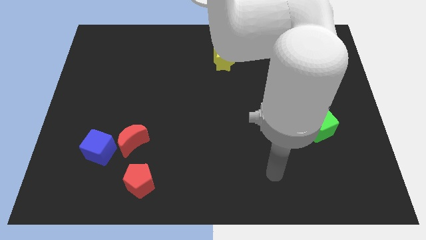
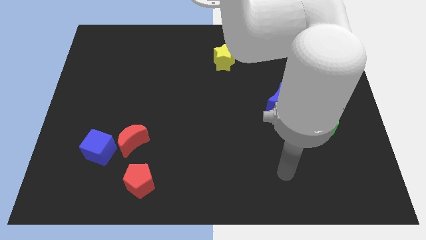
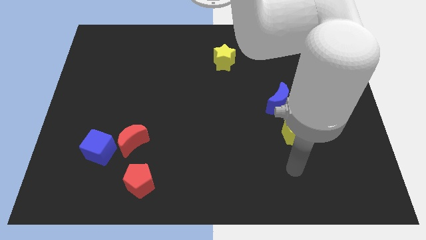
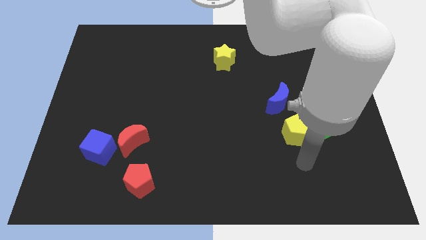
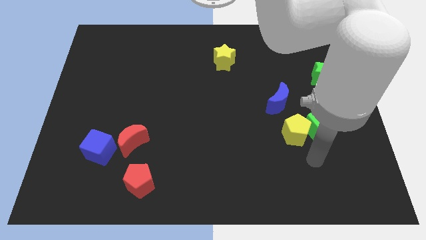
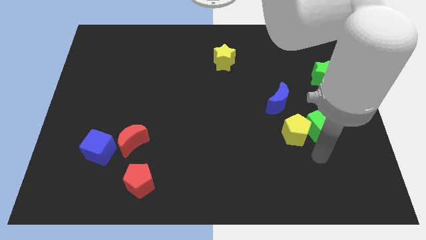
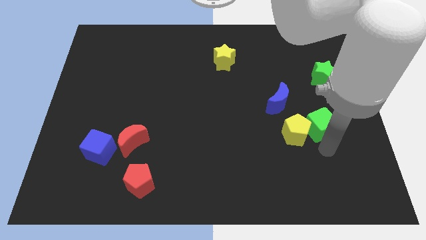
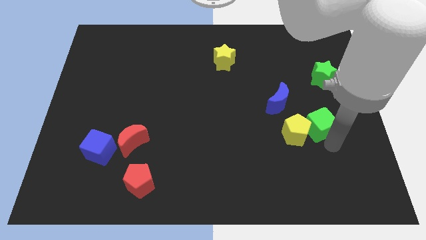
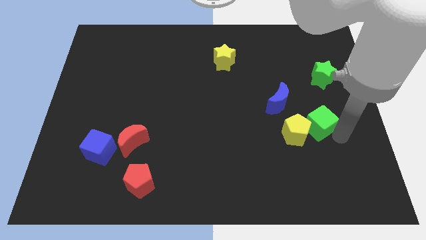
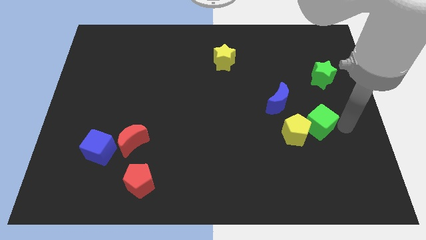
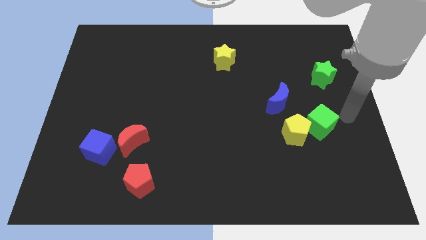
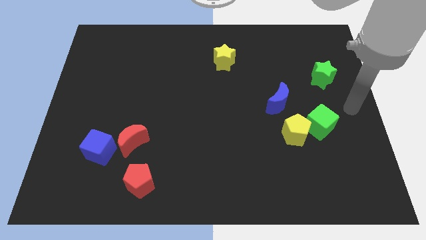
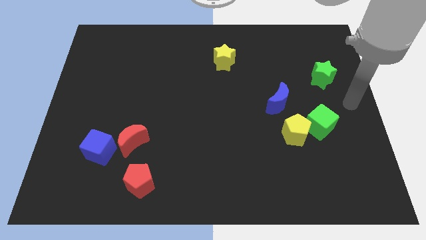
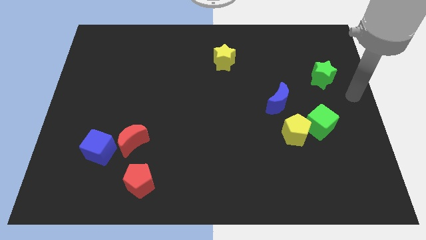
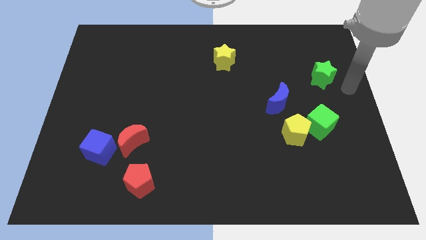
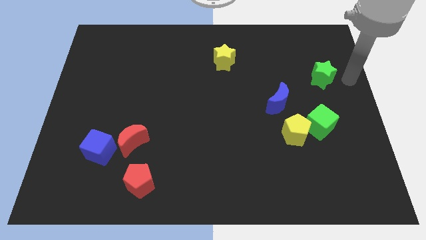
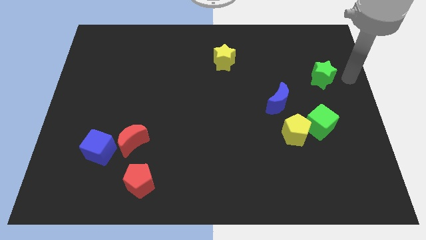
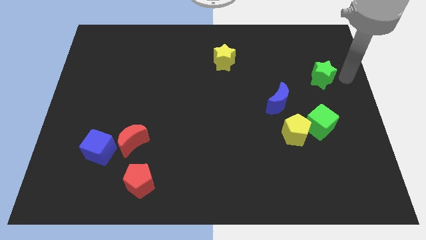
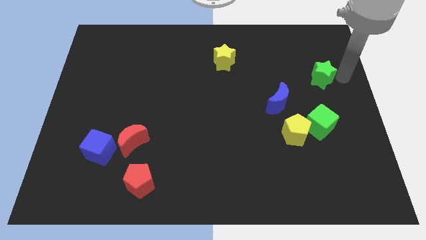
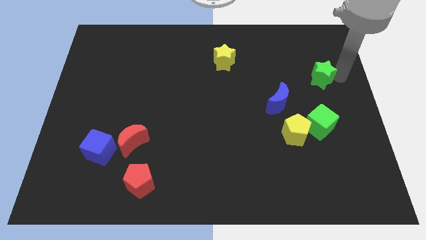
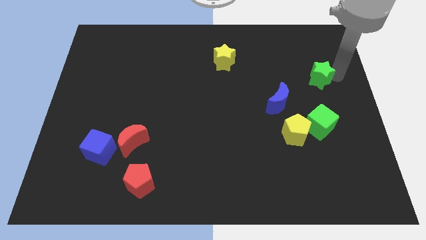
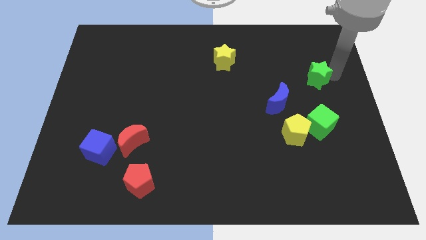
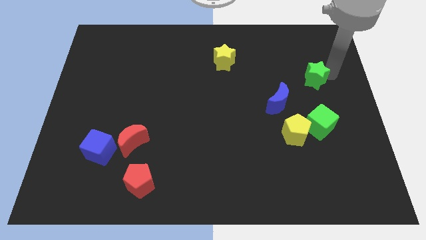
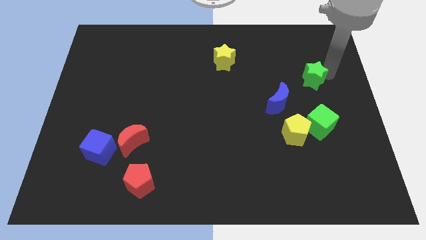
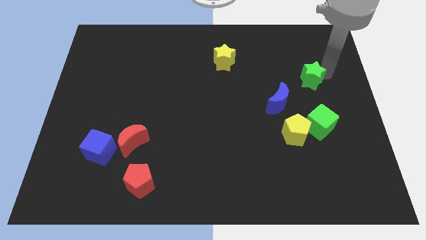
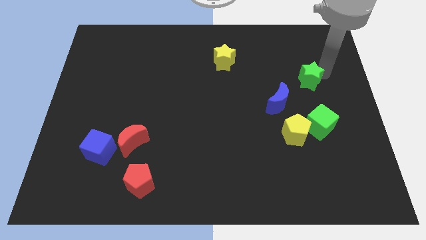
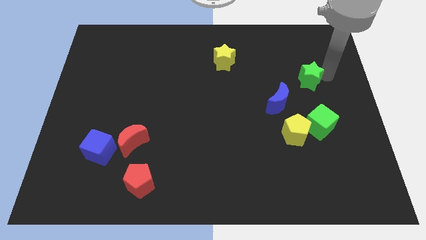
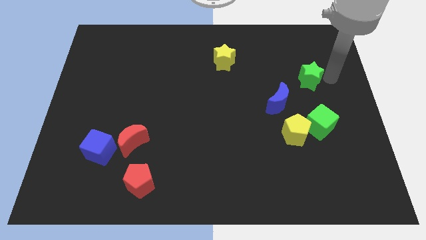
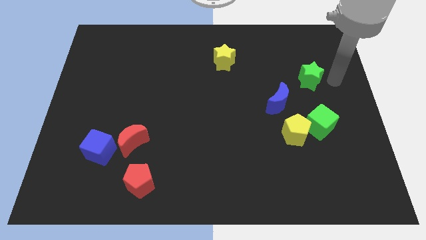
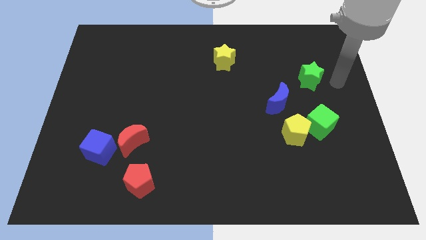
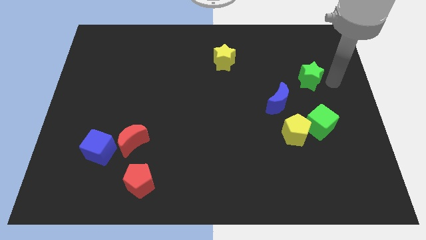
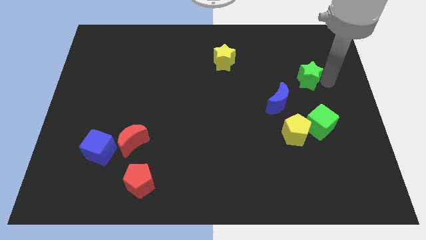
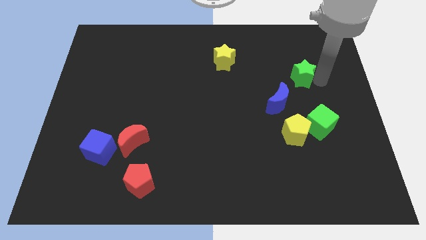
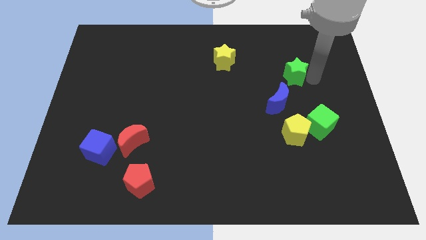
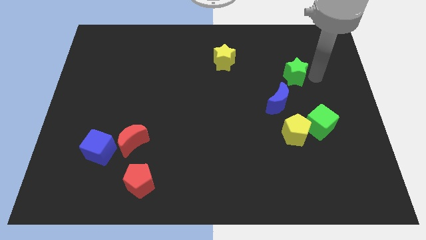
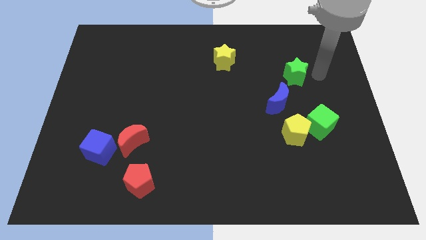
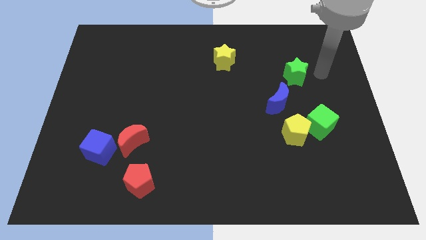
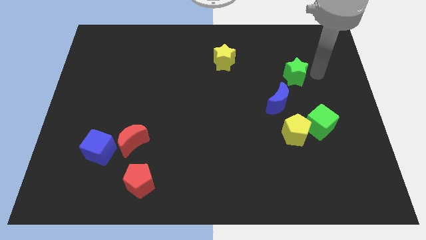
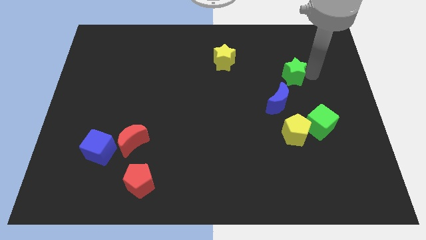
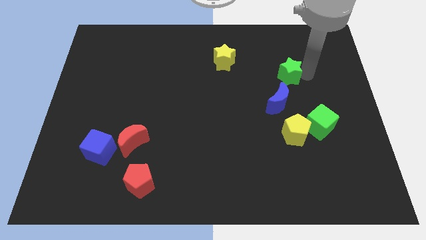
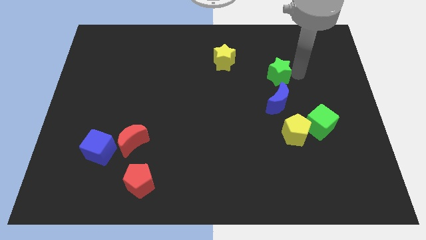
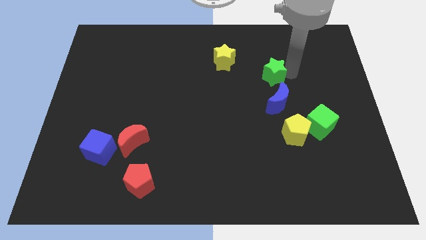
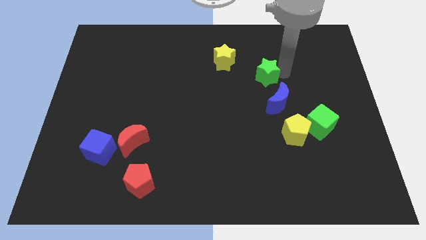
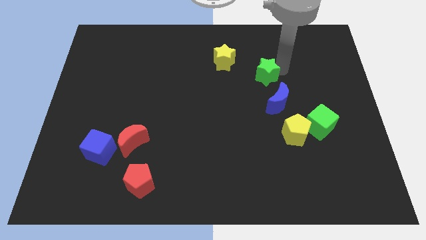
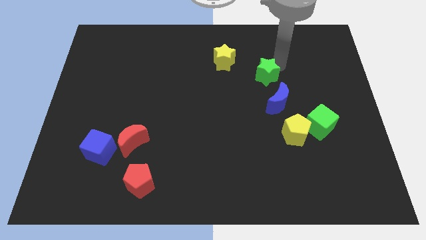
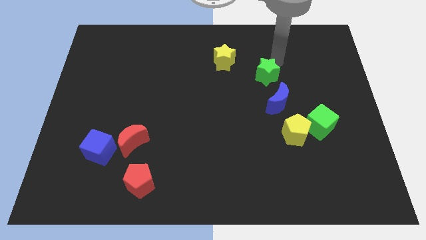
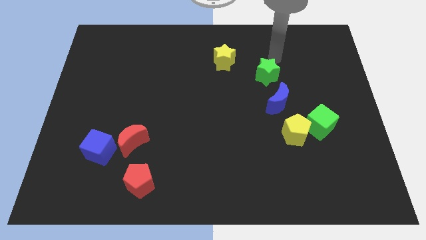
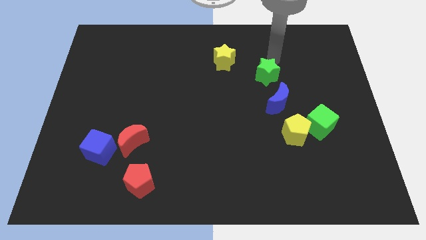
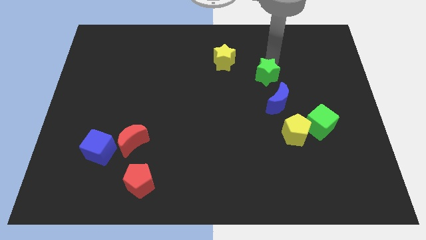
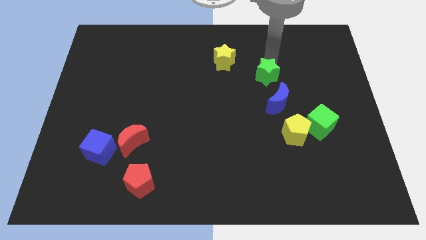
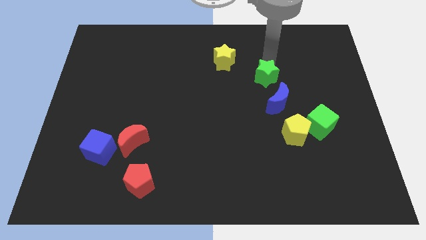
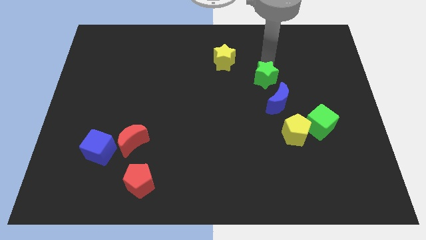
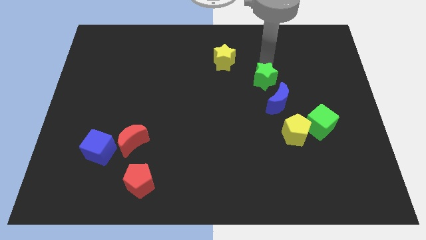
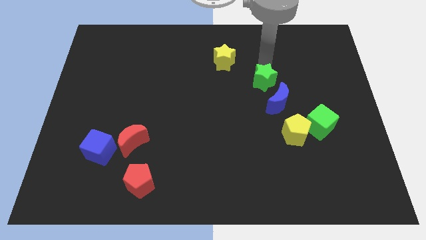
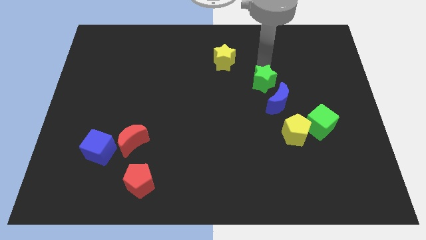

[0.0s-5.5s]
move the green star diagonally downwards and left somewhat

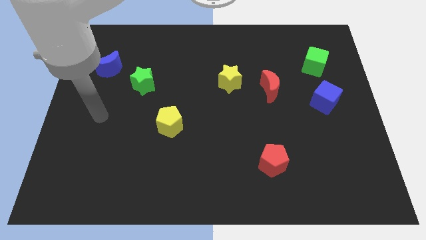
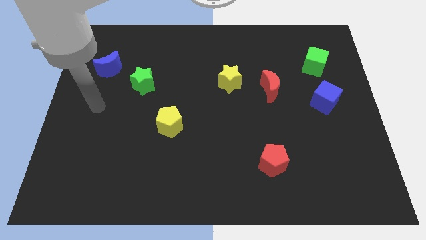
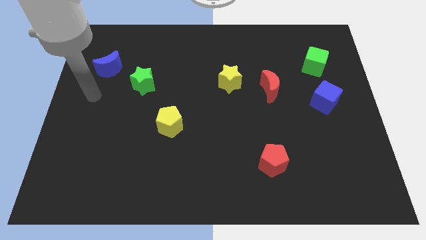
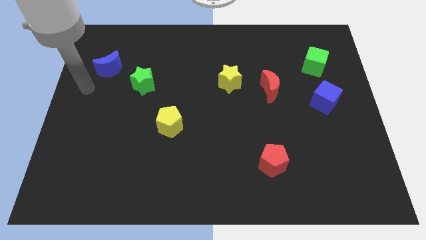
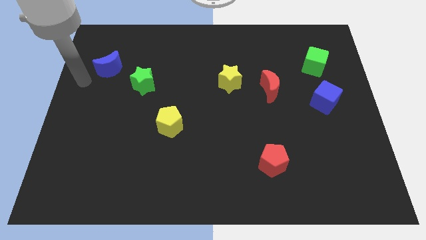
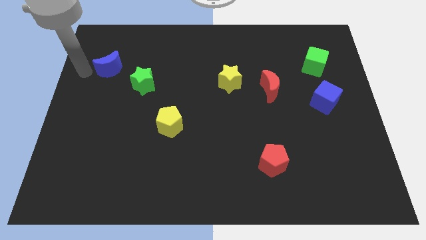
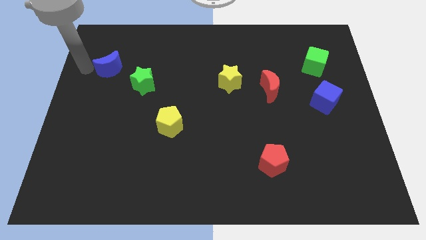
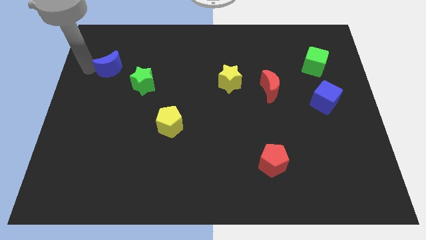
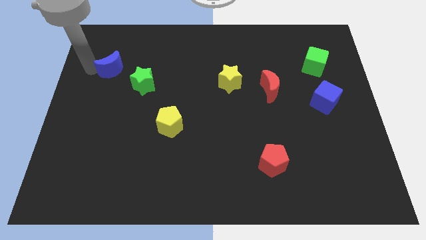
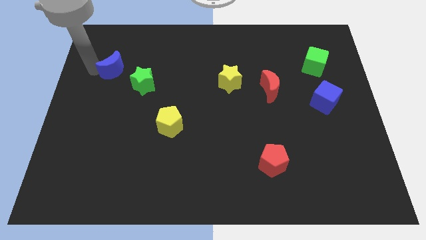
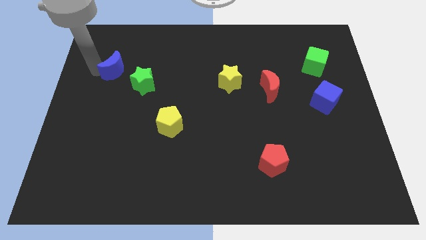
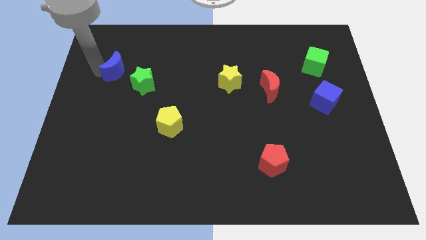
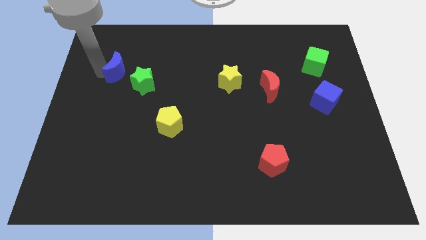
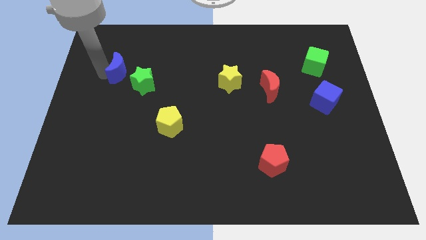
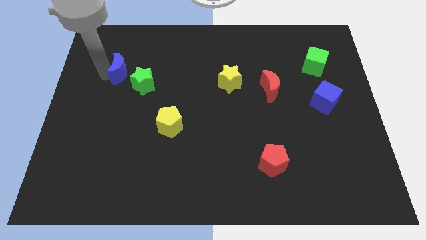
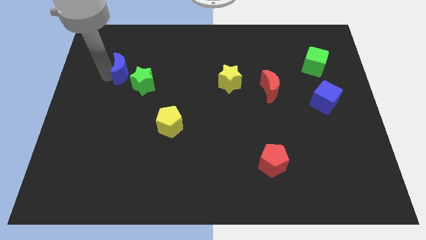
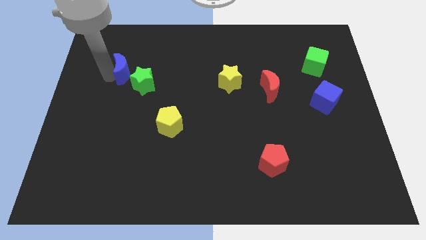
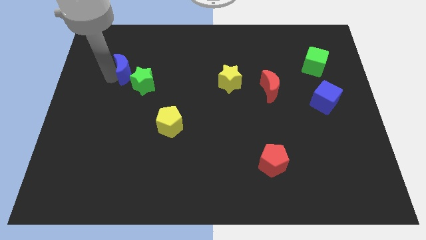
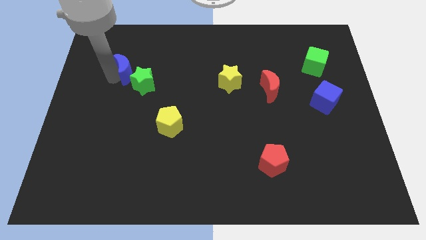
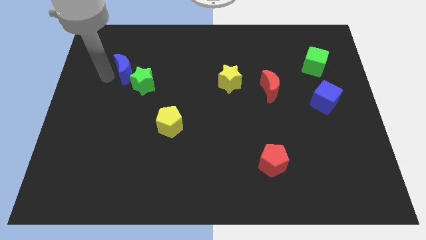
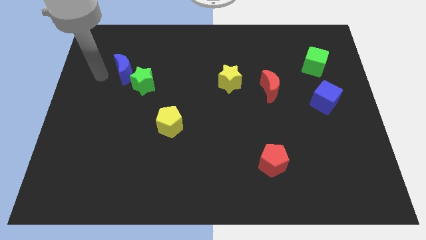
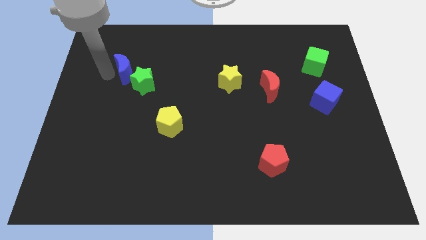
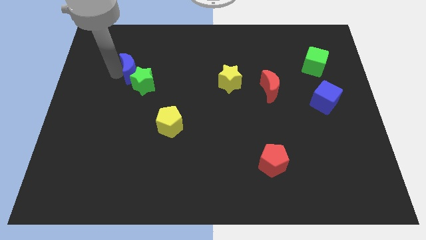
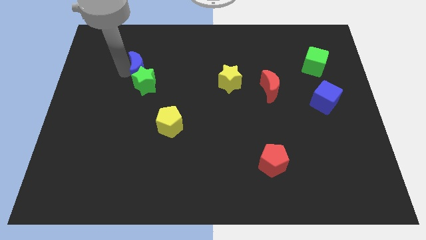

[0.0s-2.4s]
move the blue moon right somewhat
